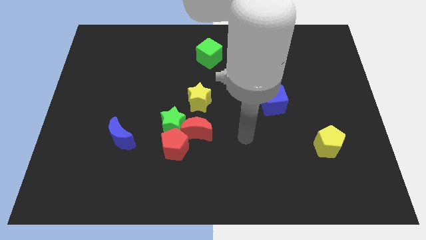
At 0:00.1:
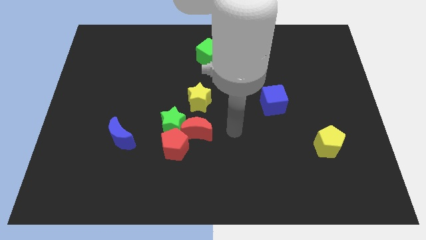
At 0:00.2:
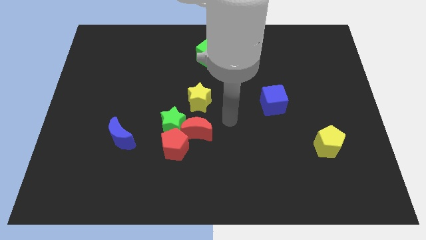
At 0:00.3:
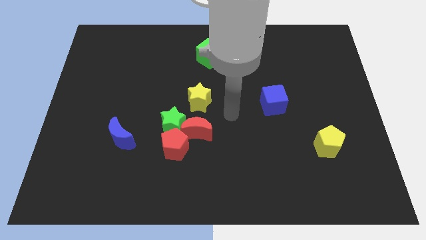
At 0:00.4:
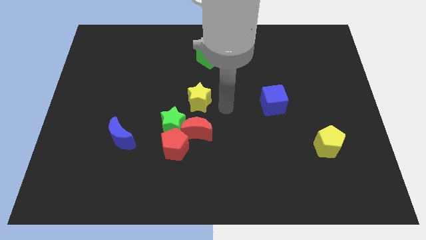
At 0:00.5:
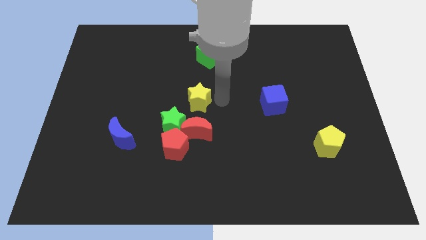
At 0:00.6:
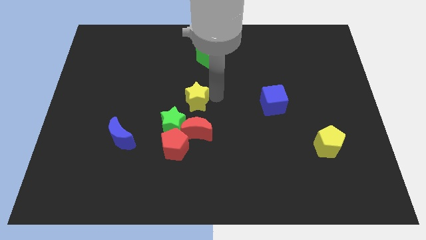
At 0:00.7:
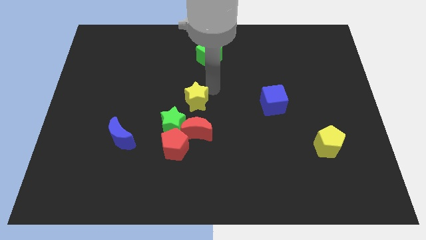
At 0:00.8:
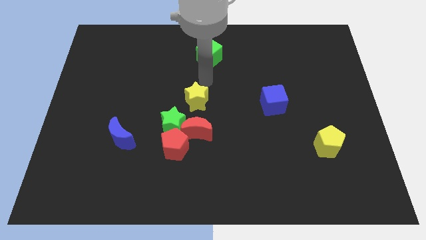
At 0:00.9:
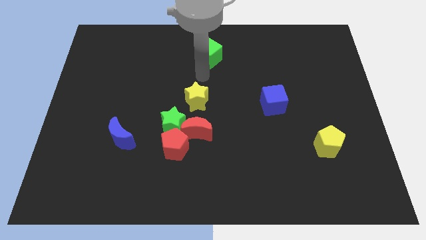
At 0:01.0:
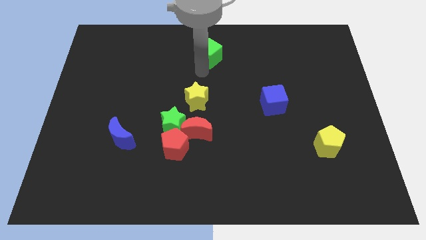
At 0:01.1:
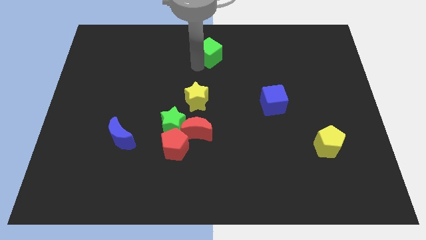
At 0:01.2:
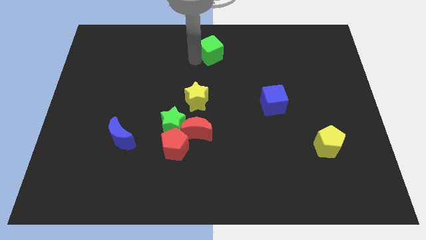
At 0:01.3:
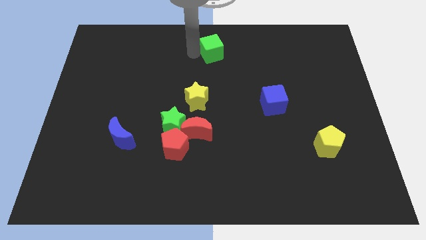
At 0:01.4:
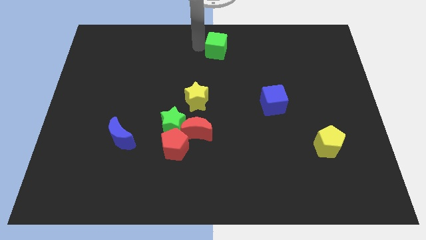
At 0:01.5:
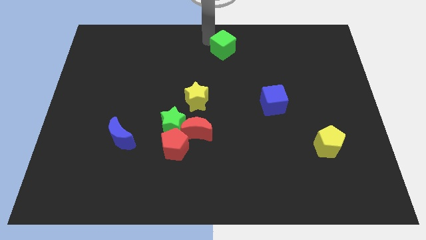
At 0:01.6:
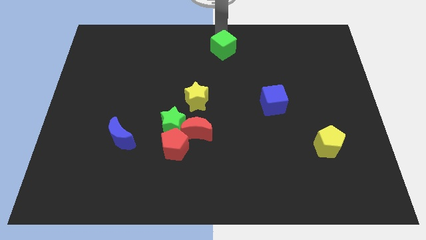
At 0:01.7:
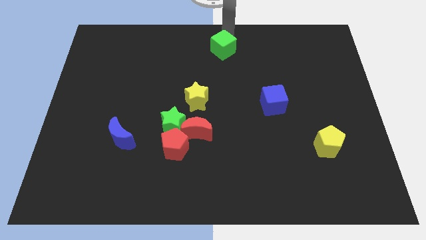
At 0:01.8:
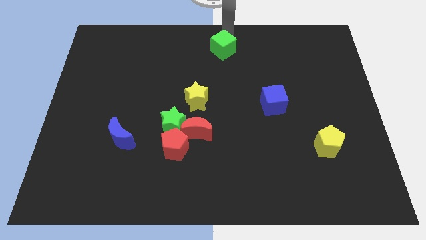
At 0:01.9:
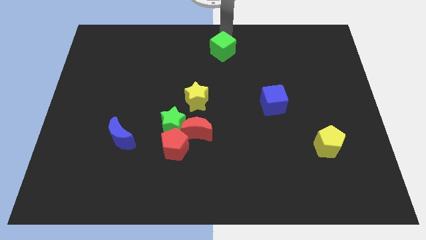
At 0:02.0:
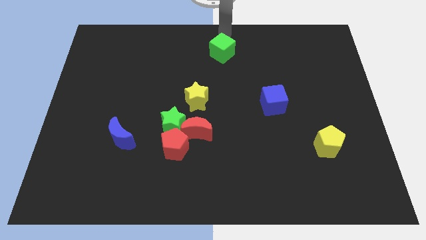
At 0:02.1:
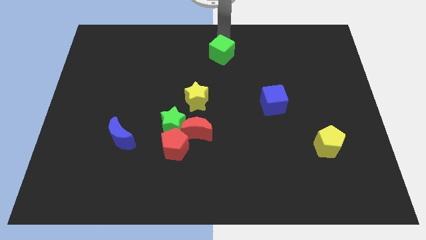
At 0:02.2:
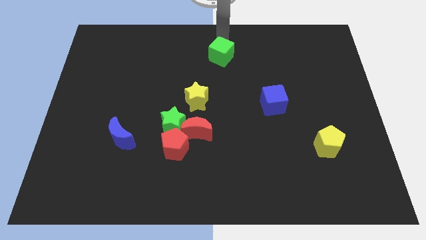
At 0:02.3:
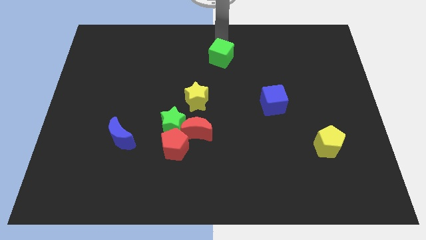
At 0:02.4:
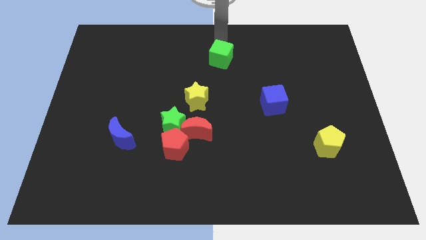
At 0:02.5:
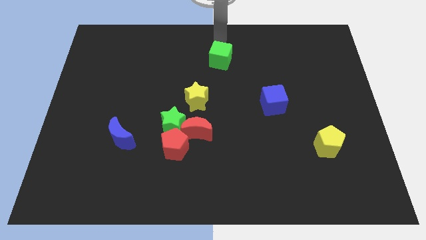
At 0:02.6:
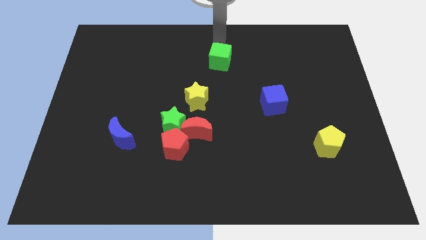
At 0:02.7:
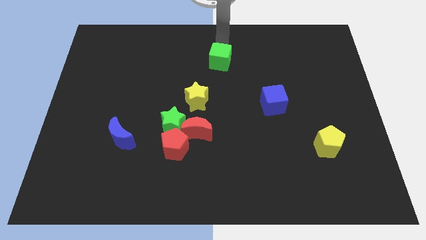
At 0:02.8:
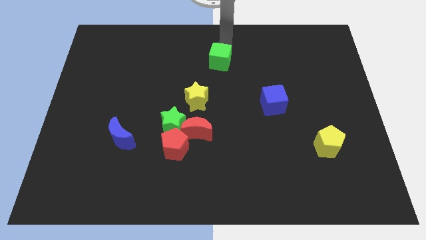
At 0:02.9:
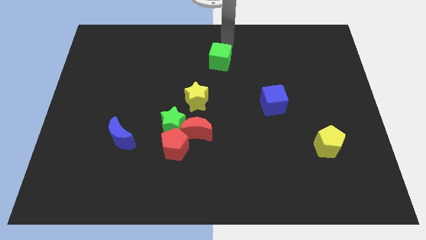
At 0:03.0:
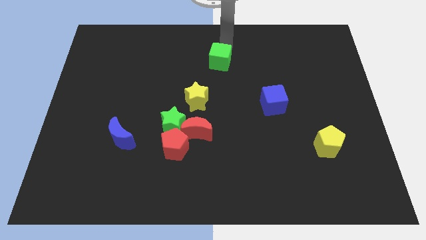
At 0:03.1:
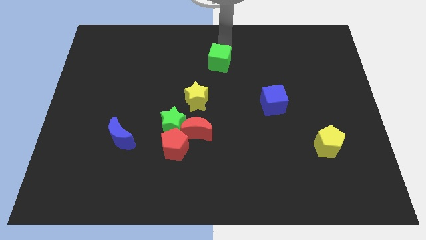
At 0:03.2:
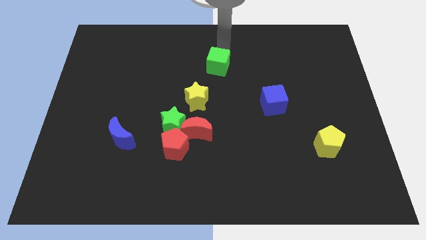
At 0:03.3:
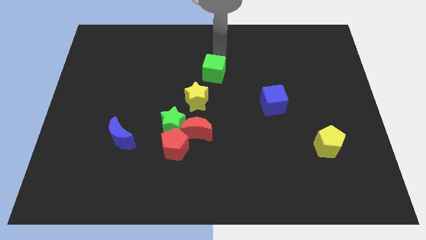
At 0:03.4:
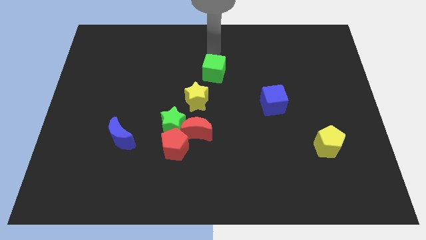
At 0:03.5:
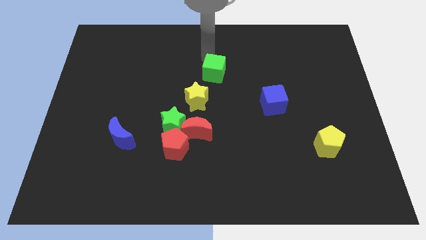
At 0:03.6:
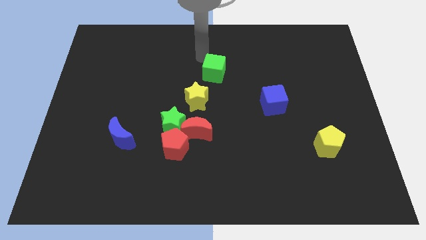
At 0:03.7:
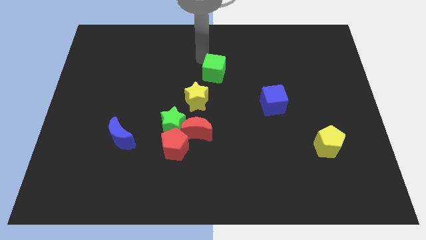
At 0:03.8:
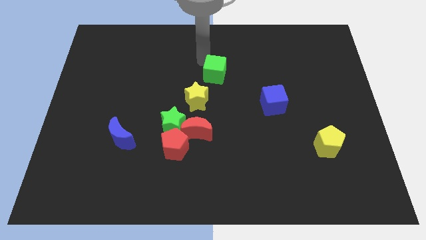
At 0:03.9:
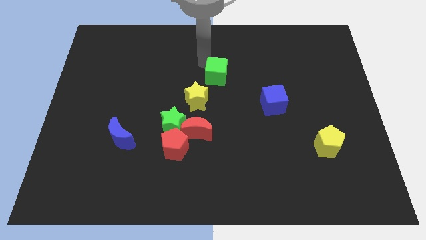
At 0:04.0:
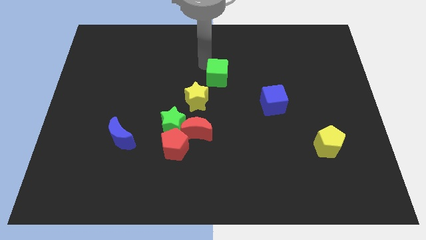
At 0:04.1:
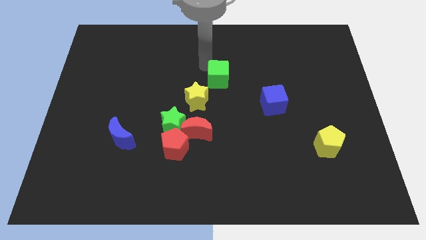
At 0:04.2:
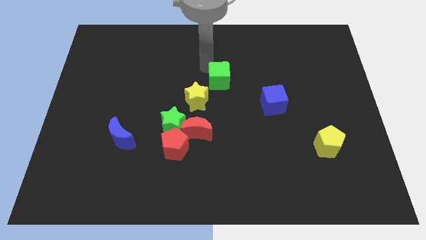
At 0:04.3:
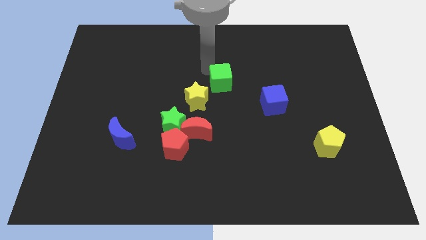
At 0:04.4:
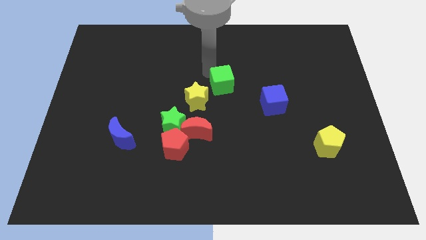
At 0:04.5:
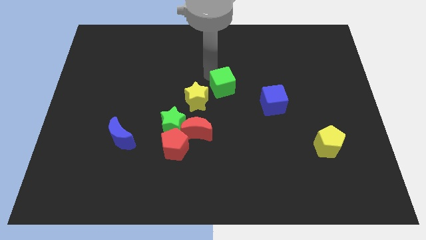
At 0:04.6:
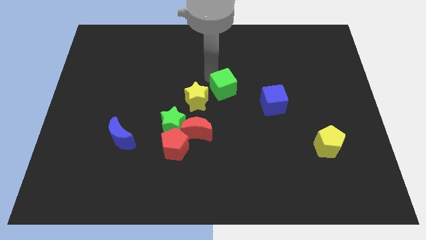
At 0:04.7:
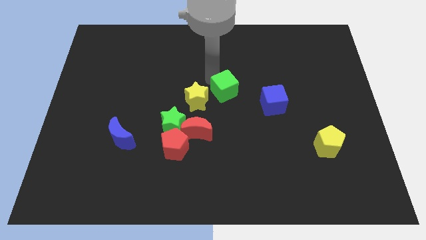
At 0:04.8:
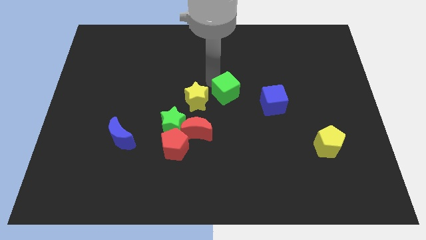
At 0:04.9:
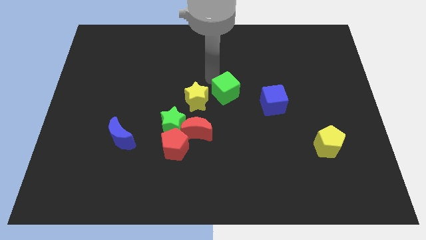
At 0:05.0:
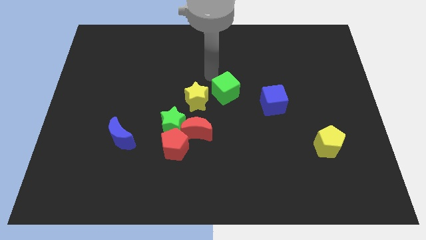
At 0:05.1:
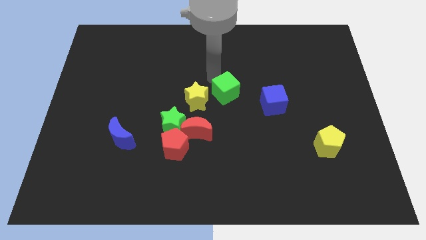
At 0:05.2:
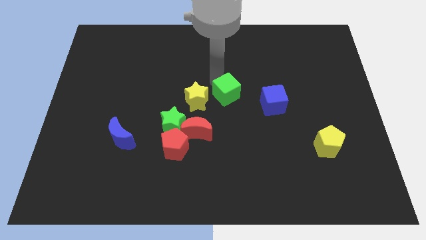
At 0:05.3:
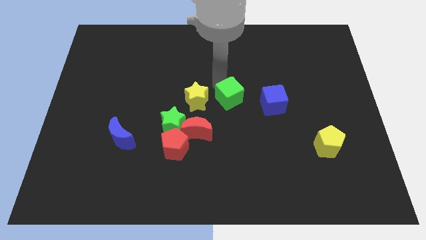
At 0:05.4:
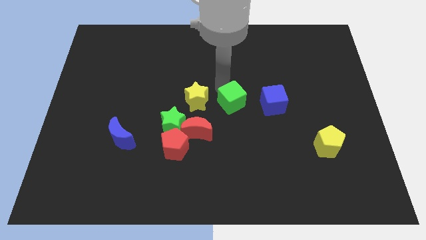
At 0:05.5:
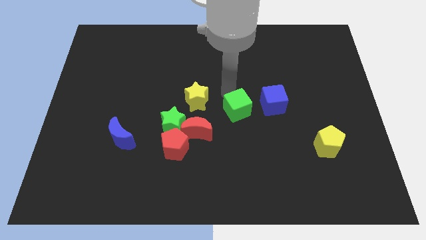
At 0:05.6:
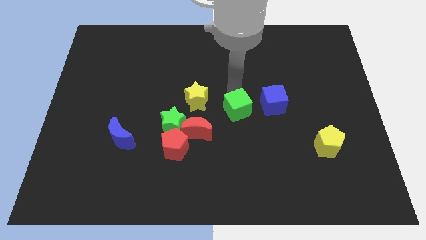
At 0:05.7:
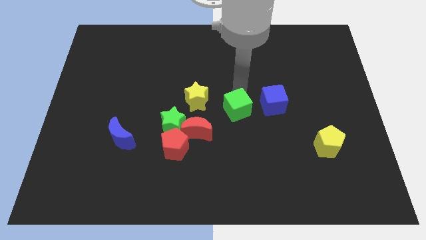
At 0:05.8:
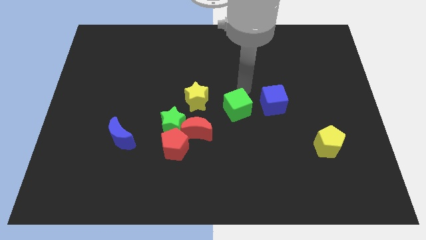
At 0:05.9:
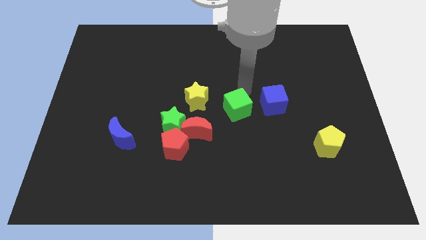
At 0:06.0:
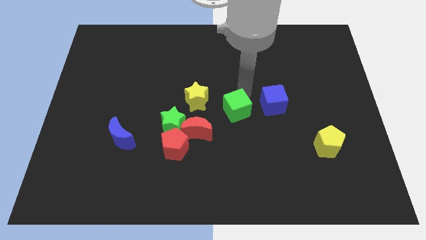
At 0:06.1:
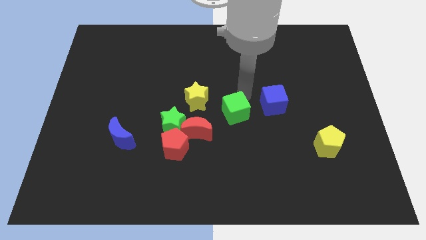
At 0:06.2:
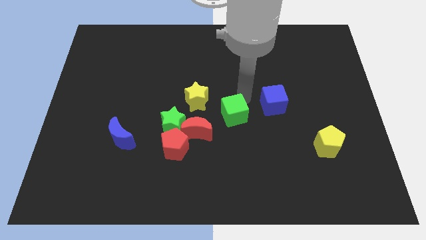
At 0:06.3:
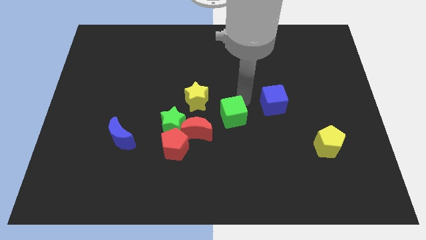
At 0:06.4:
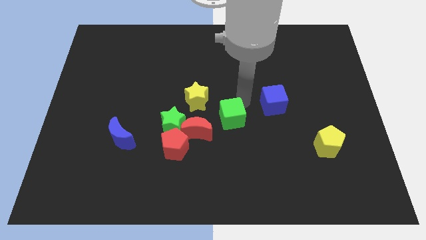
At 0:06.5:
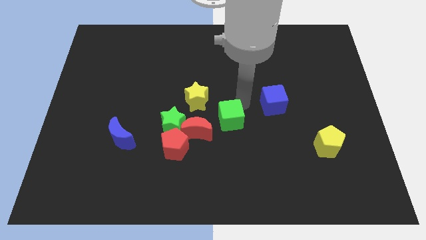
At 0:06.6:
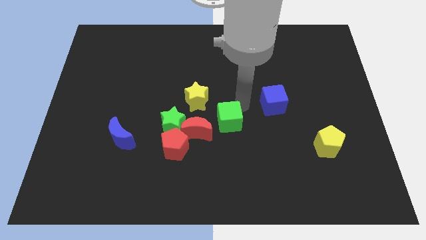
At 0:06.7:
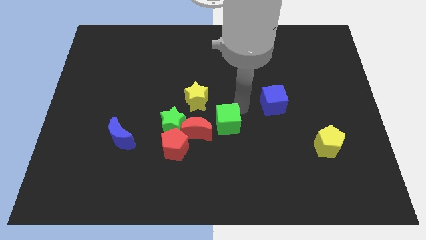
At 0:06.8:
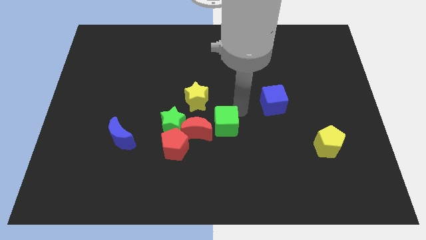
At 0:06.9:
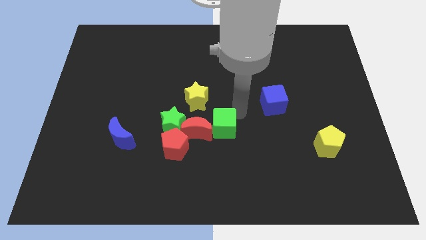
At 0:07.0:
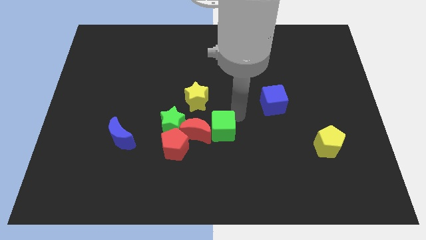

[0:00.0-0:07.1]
slide the green cube to the right of the red pentagon
